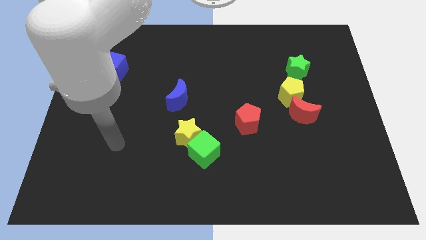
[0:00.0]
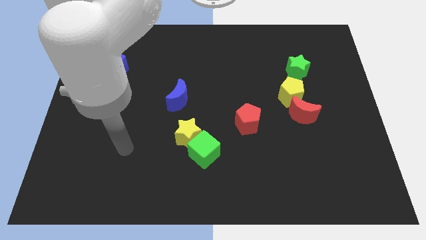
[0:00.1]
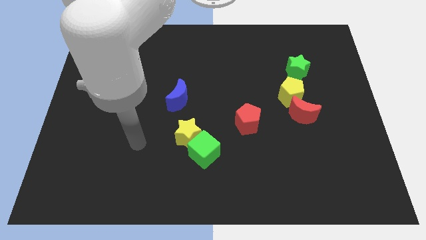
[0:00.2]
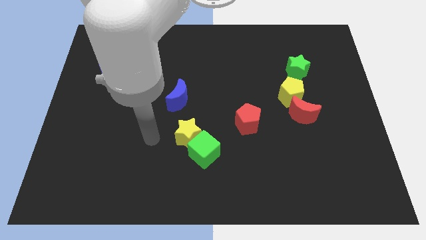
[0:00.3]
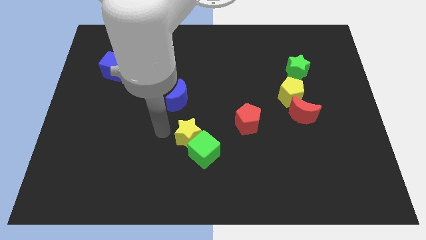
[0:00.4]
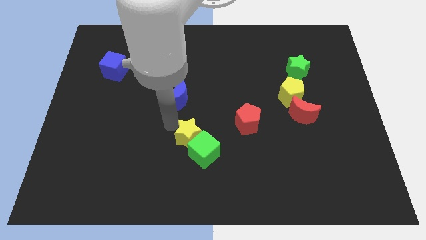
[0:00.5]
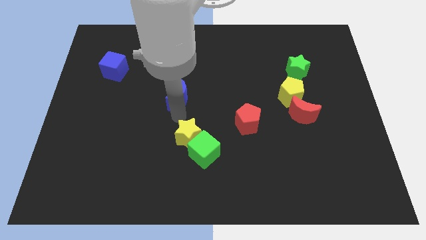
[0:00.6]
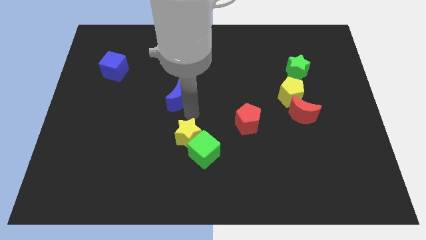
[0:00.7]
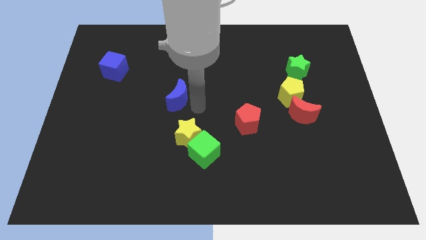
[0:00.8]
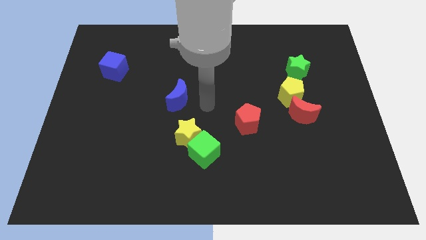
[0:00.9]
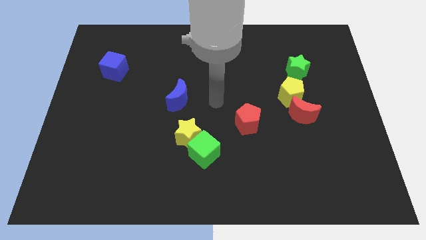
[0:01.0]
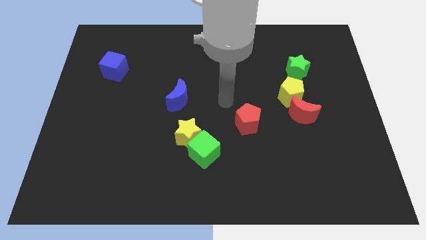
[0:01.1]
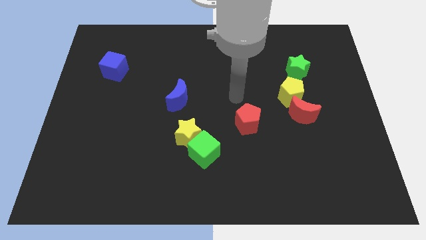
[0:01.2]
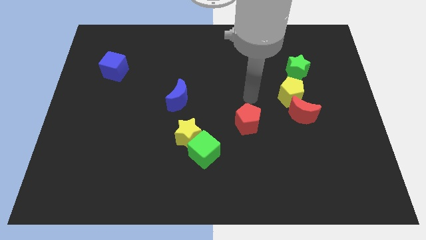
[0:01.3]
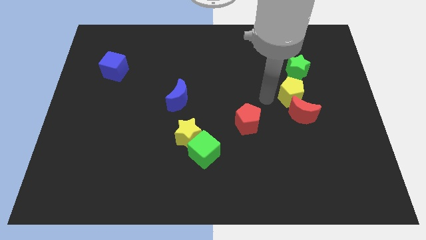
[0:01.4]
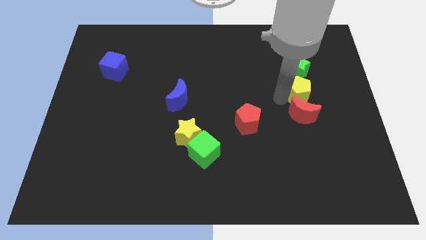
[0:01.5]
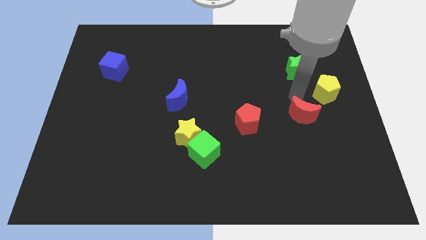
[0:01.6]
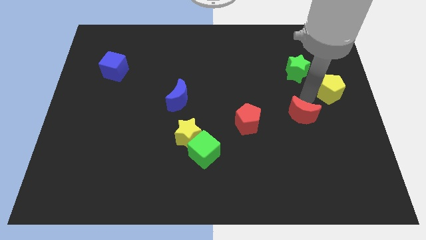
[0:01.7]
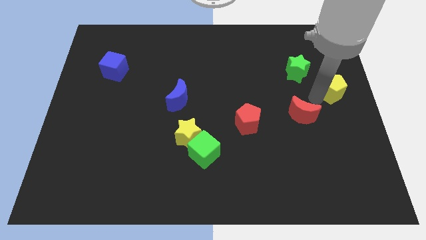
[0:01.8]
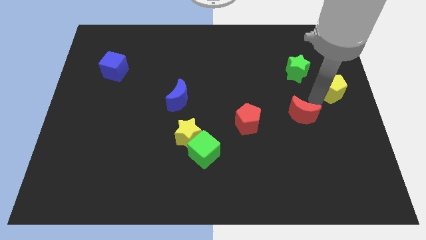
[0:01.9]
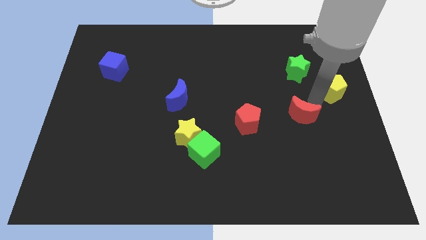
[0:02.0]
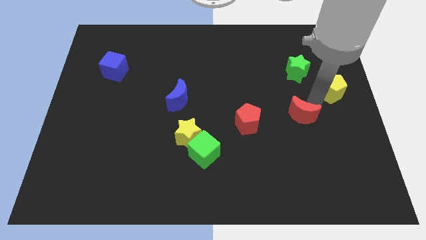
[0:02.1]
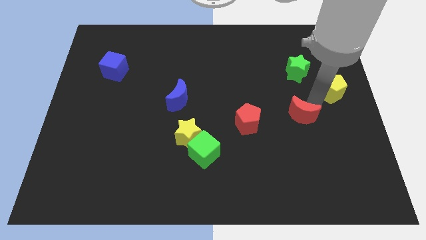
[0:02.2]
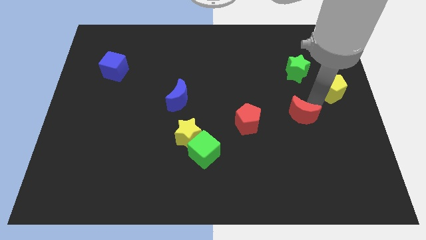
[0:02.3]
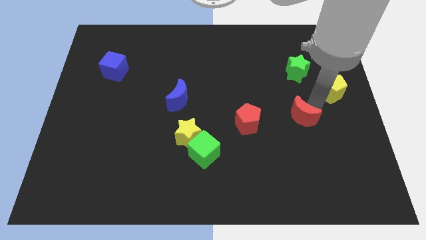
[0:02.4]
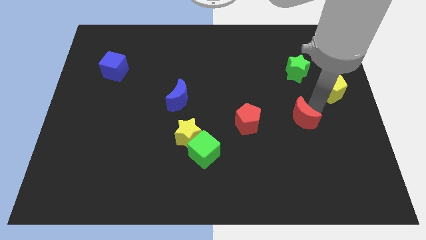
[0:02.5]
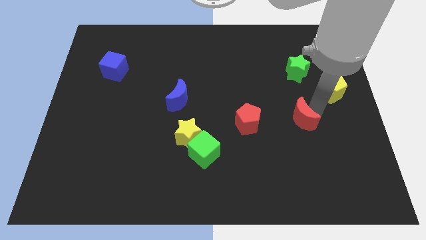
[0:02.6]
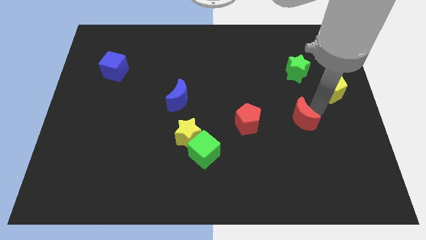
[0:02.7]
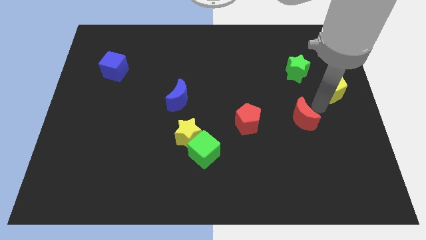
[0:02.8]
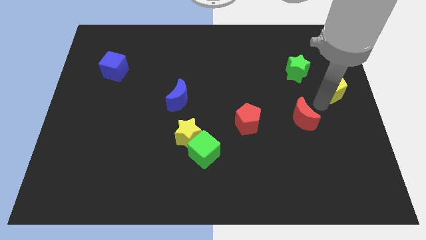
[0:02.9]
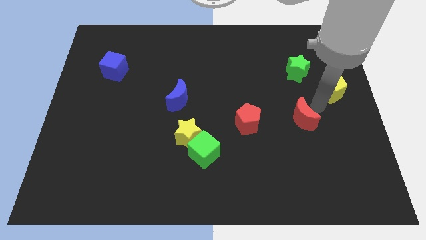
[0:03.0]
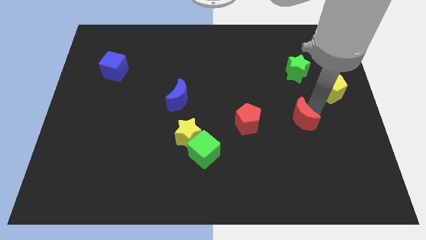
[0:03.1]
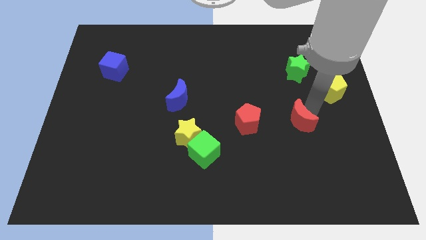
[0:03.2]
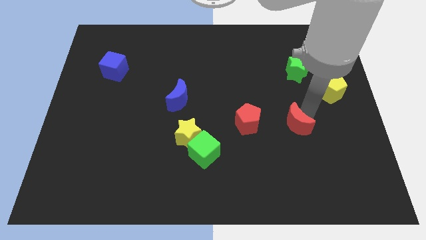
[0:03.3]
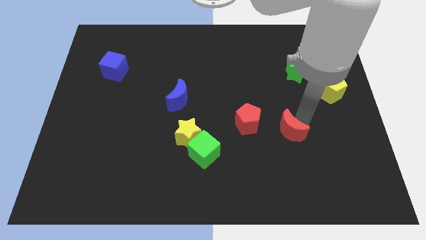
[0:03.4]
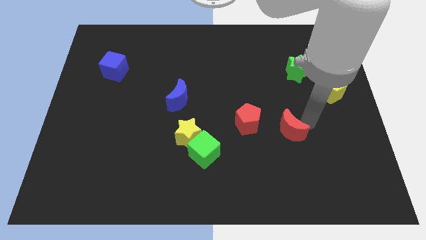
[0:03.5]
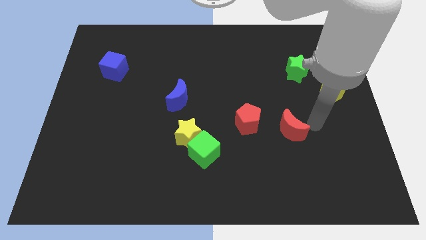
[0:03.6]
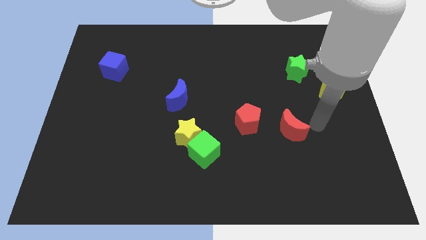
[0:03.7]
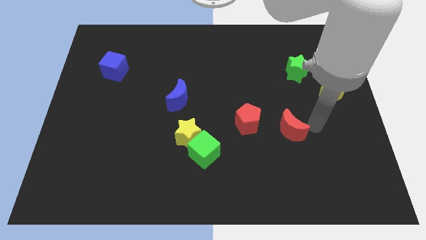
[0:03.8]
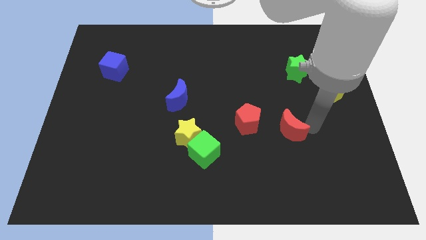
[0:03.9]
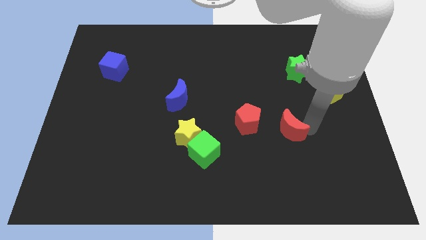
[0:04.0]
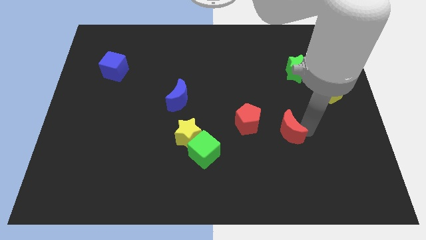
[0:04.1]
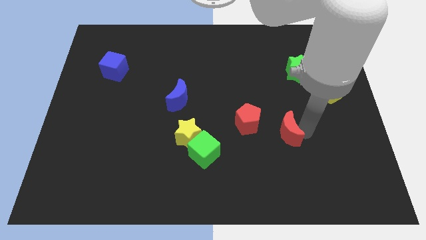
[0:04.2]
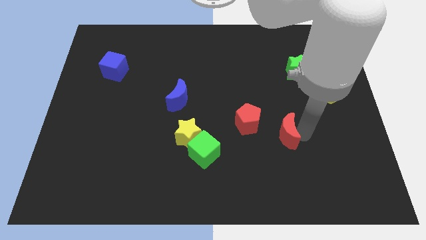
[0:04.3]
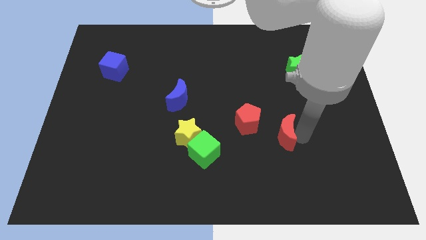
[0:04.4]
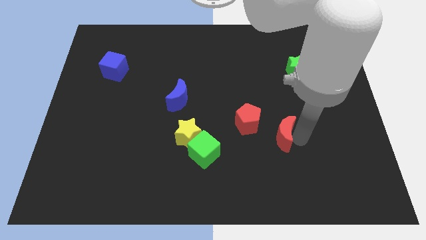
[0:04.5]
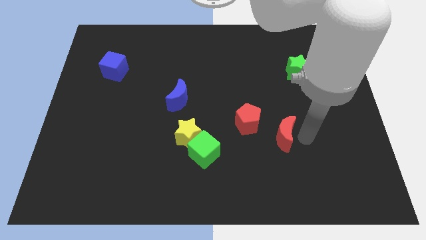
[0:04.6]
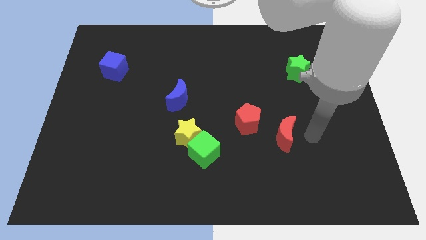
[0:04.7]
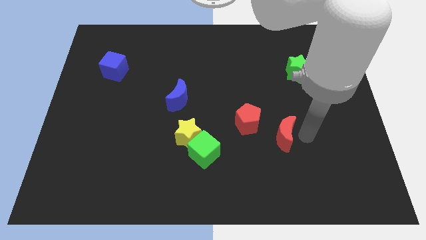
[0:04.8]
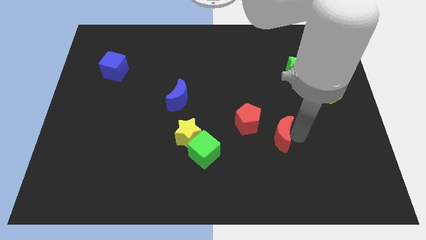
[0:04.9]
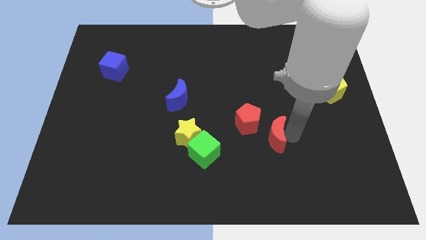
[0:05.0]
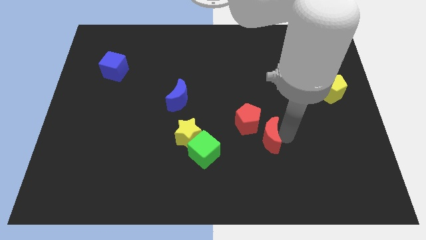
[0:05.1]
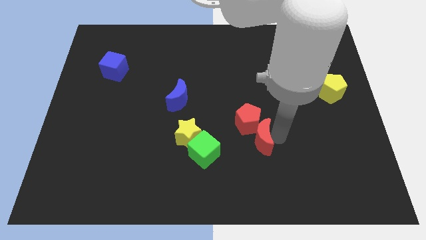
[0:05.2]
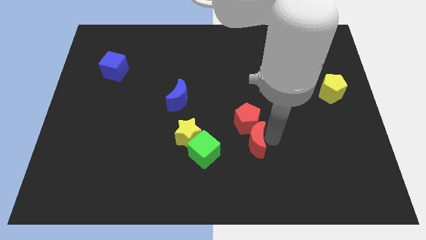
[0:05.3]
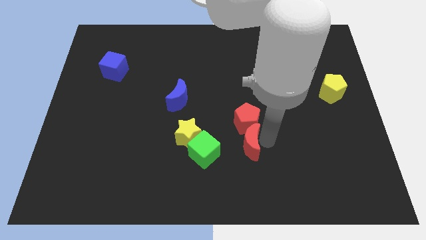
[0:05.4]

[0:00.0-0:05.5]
move the red moon to the bottom left side of the red pentagon

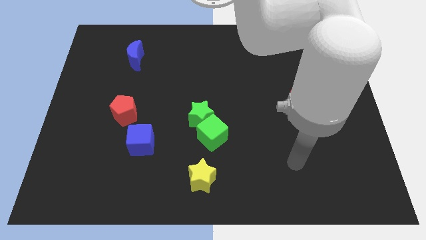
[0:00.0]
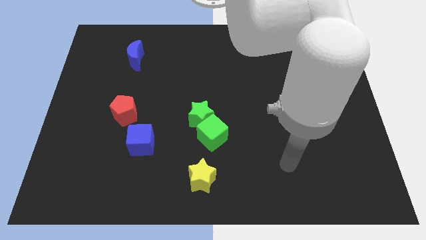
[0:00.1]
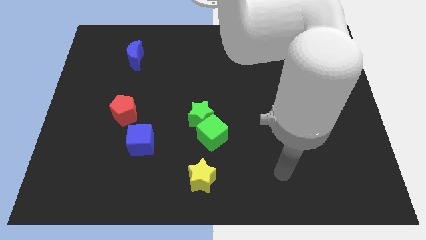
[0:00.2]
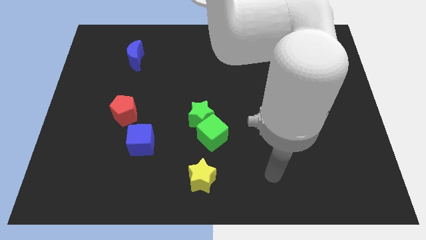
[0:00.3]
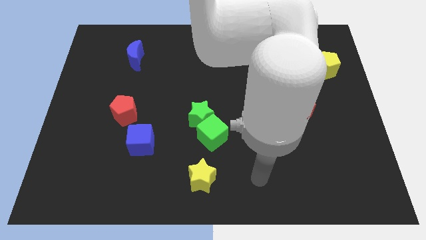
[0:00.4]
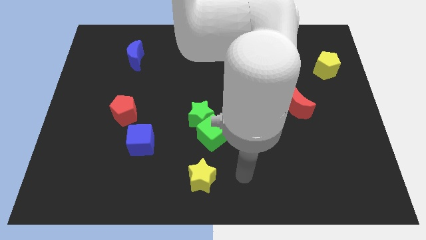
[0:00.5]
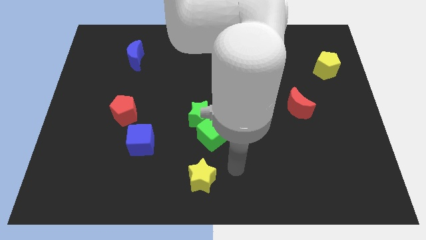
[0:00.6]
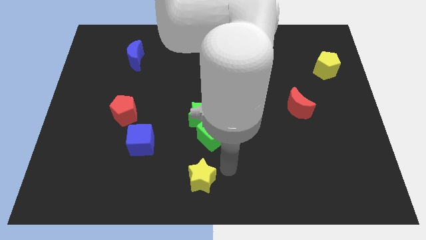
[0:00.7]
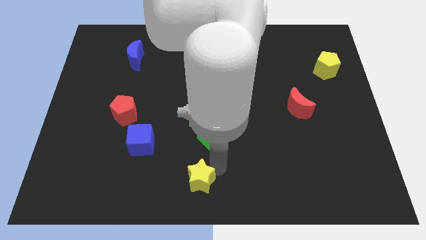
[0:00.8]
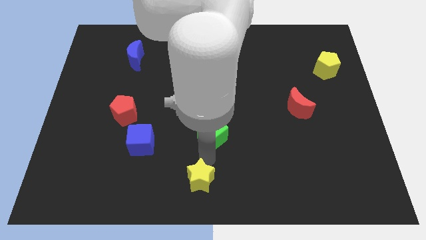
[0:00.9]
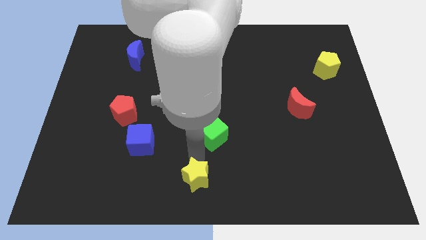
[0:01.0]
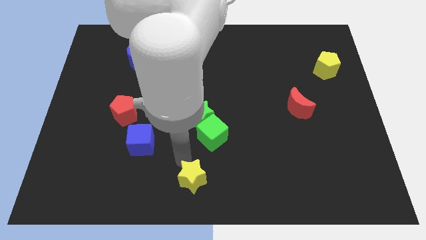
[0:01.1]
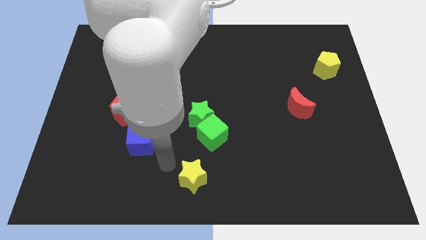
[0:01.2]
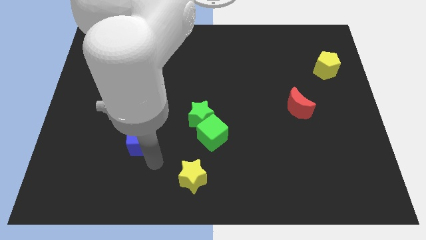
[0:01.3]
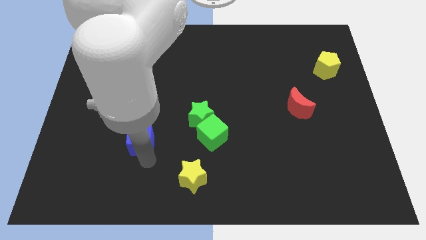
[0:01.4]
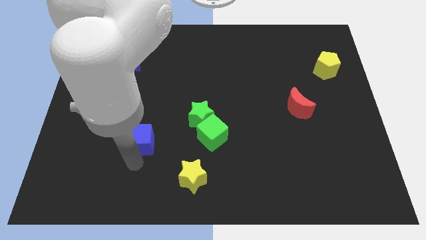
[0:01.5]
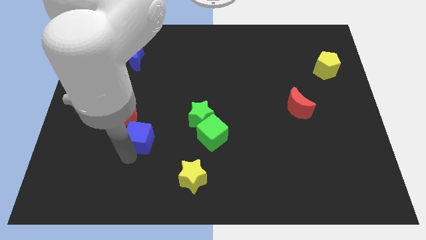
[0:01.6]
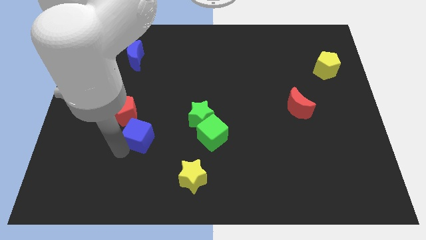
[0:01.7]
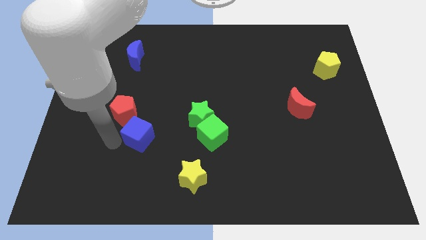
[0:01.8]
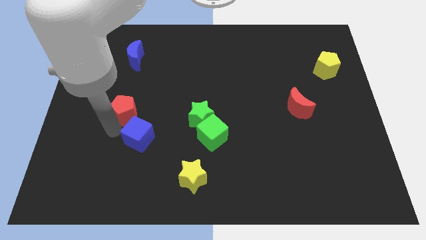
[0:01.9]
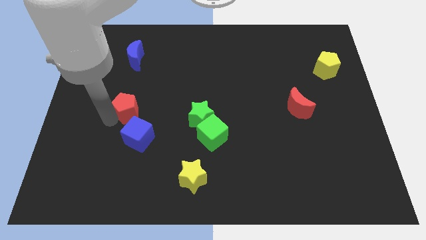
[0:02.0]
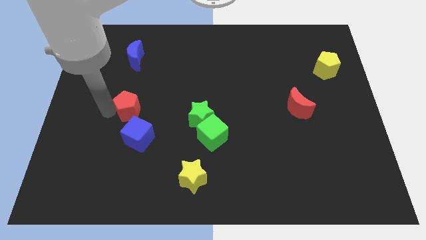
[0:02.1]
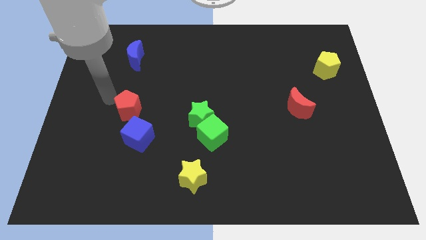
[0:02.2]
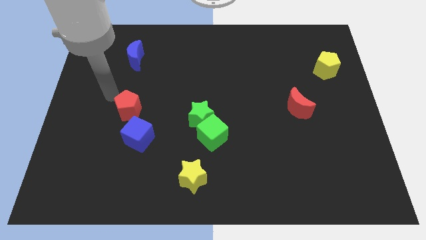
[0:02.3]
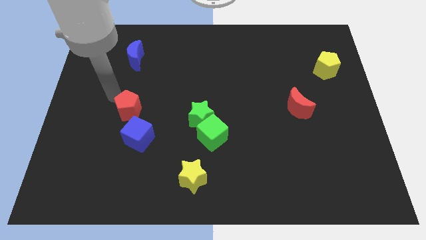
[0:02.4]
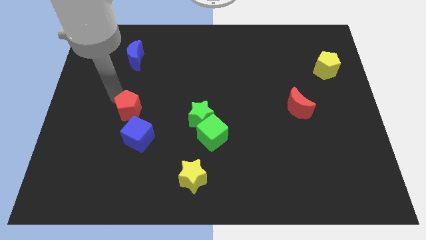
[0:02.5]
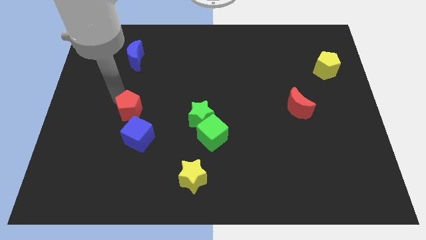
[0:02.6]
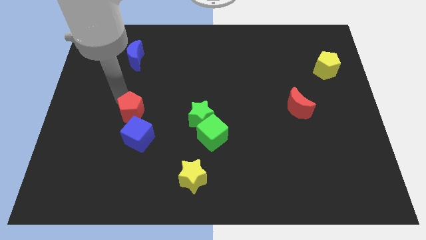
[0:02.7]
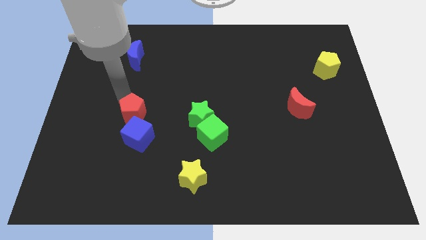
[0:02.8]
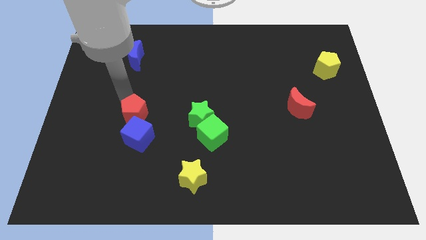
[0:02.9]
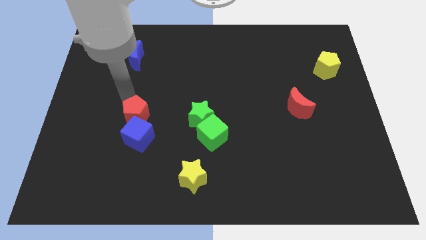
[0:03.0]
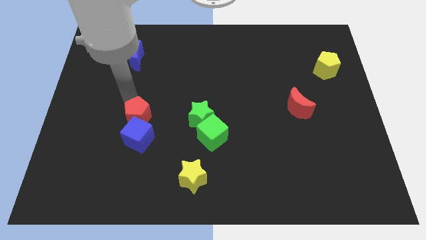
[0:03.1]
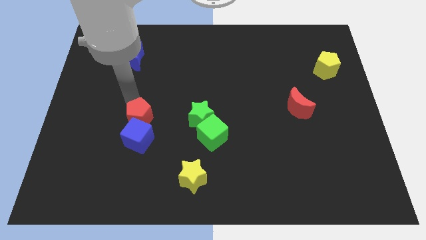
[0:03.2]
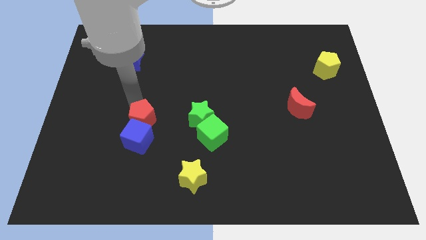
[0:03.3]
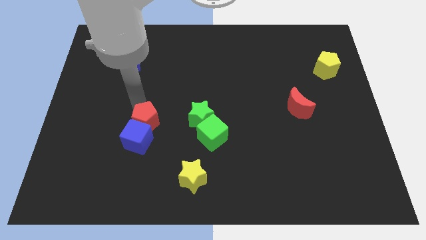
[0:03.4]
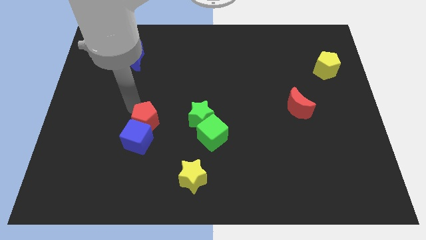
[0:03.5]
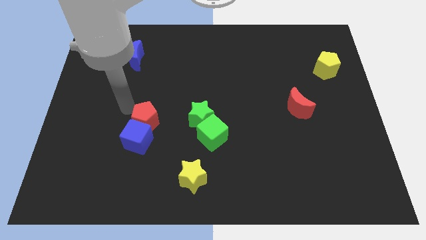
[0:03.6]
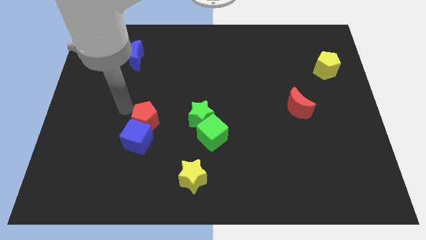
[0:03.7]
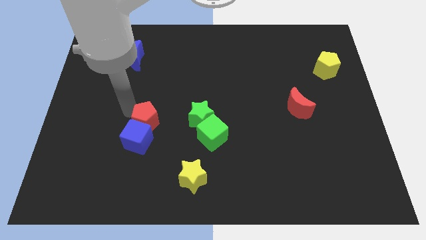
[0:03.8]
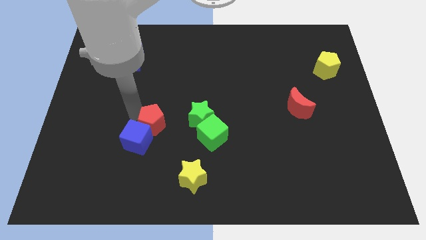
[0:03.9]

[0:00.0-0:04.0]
put the red pentagon to the right of the blue cube
